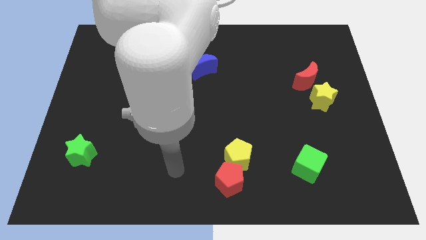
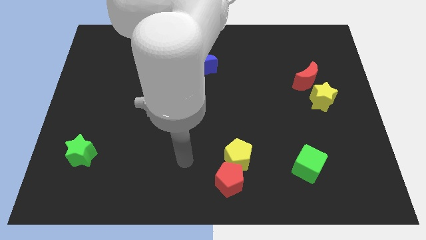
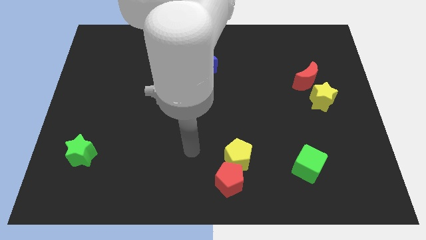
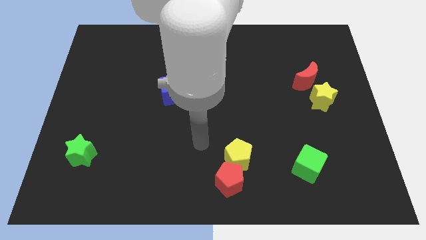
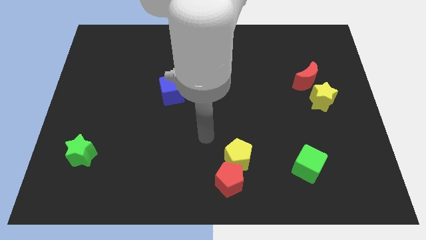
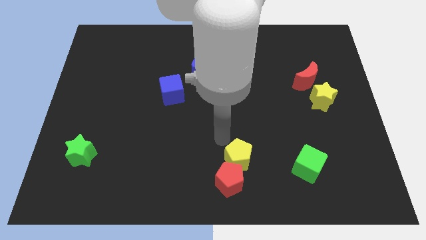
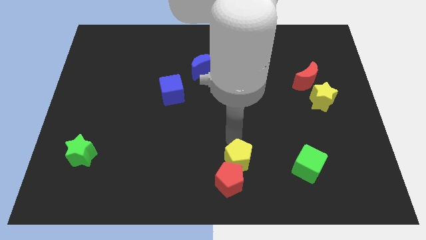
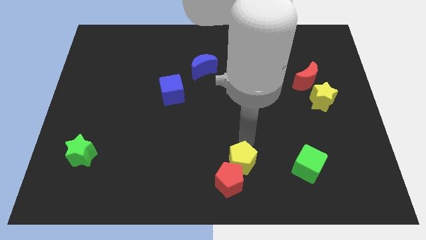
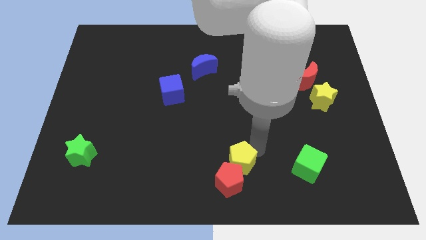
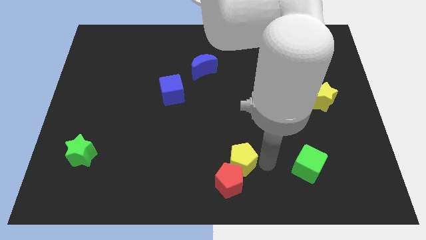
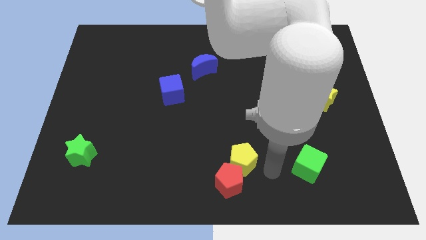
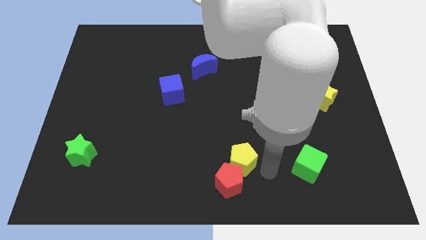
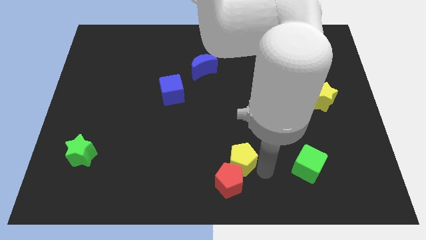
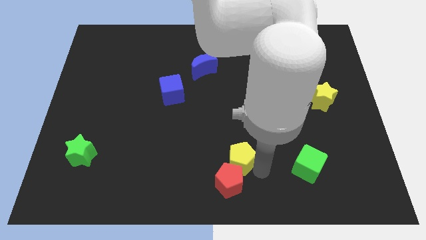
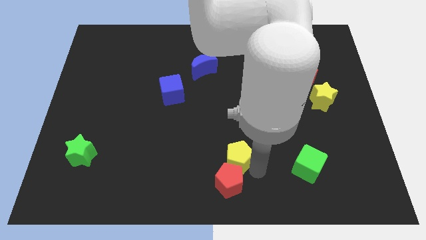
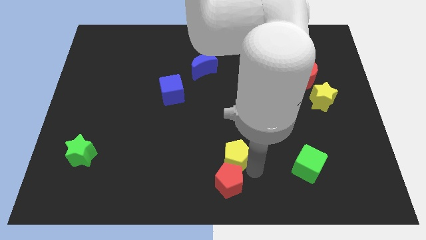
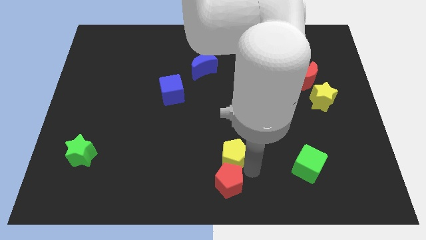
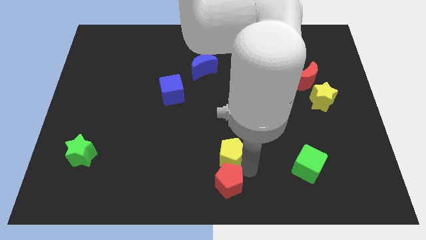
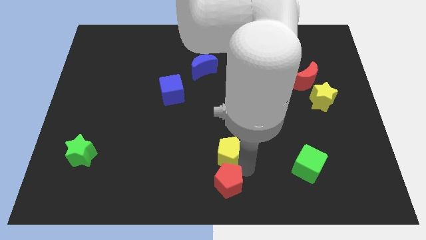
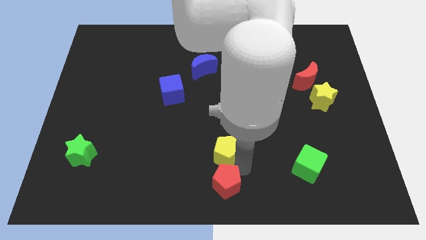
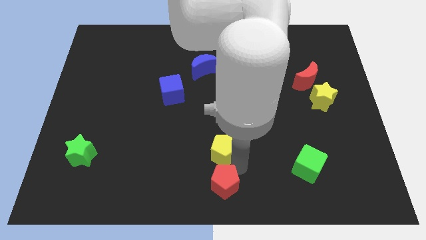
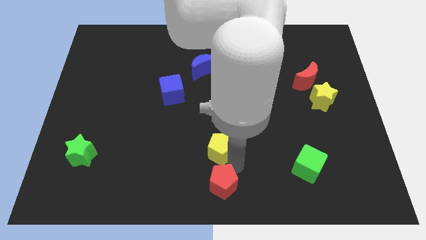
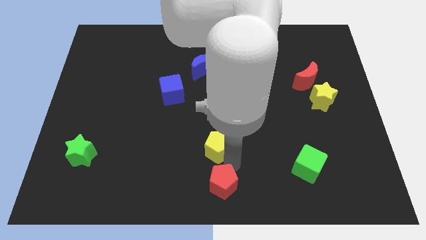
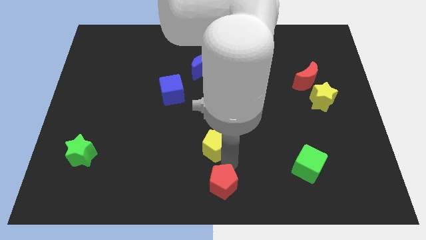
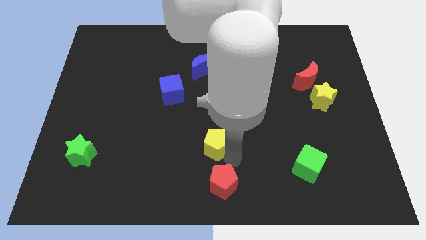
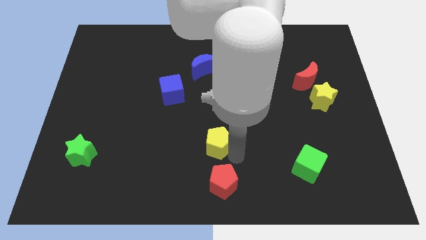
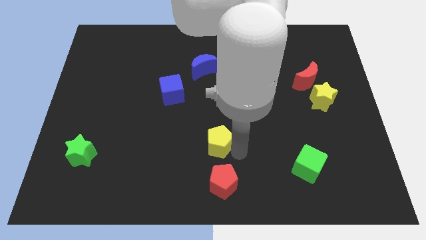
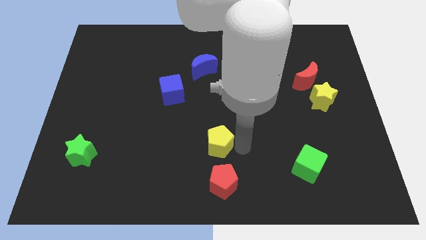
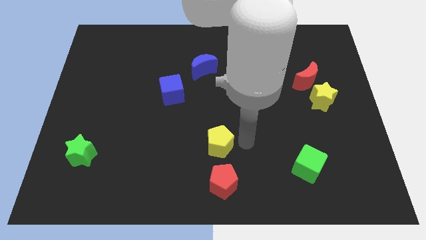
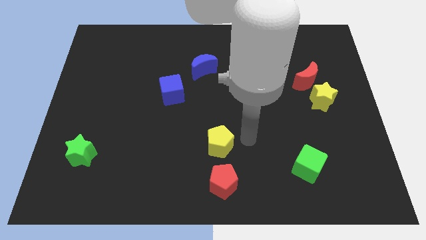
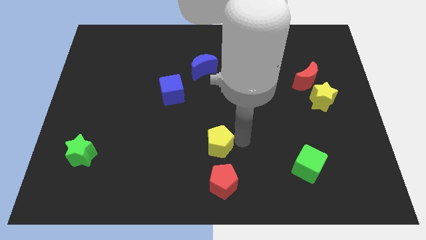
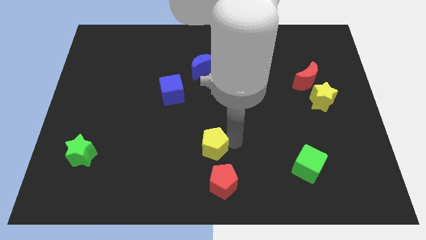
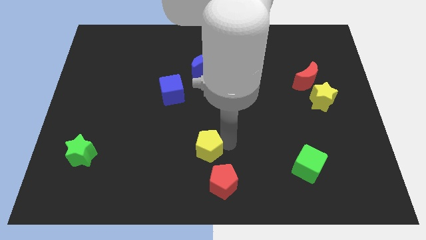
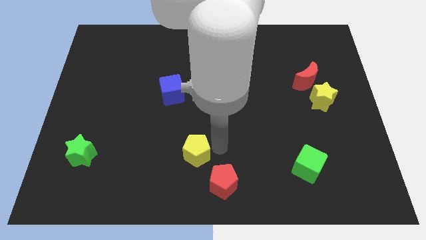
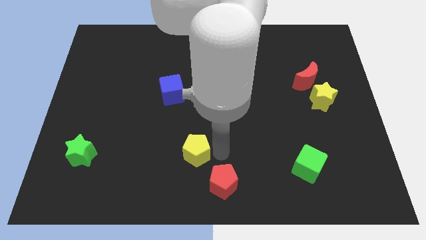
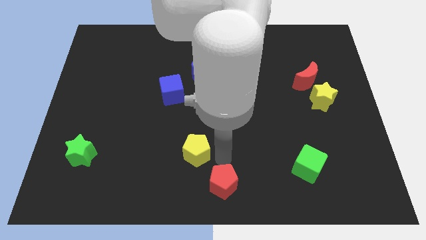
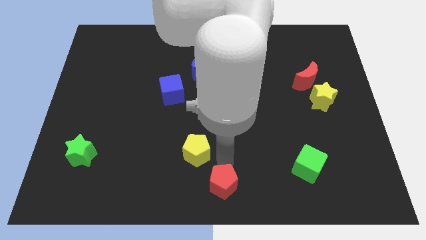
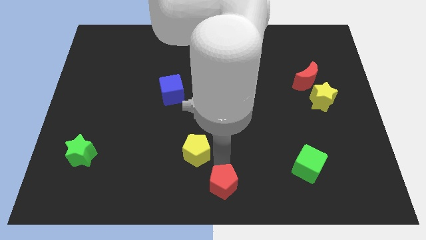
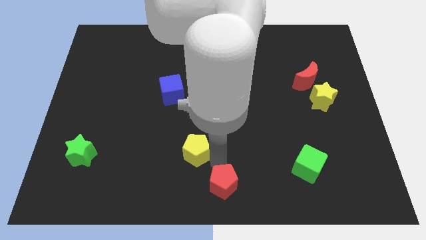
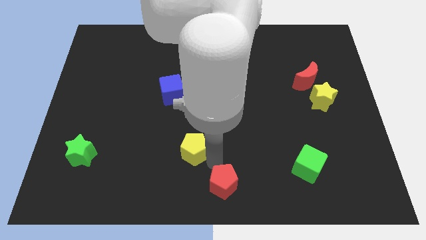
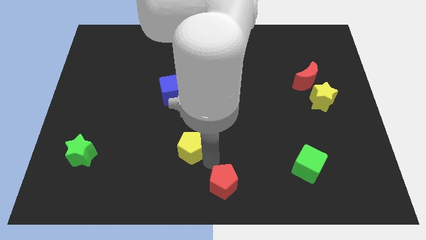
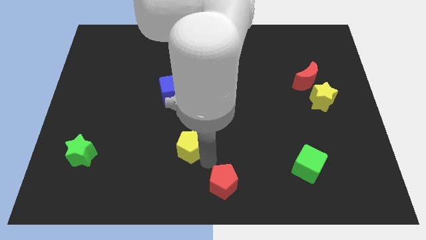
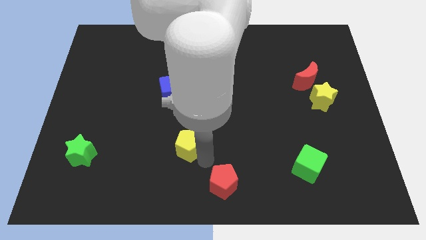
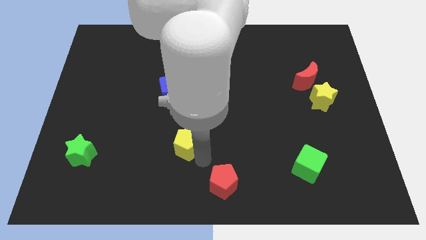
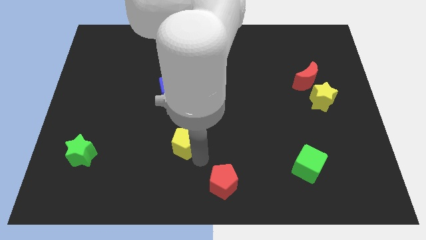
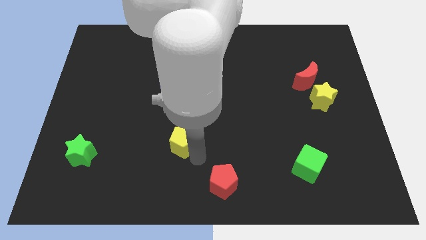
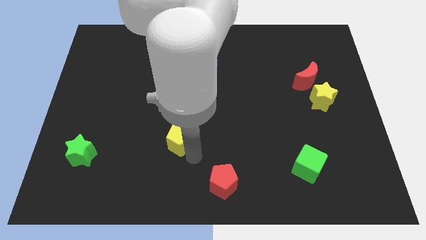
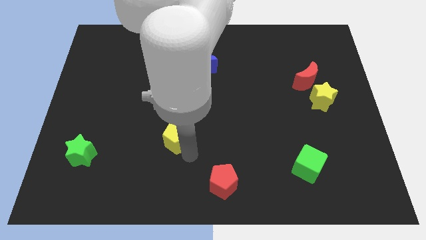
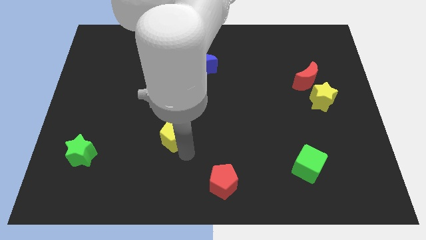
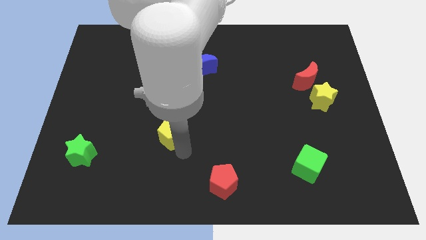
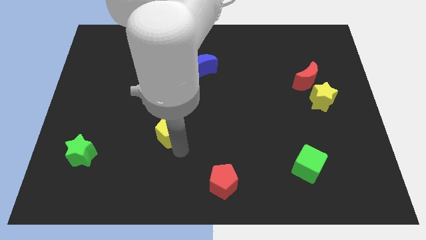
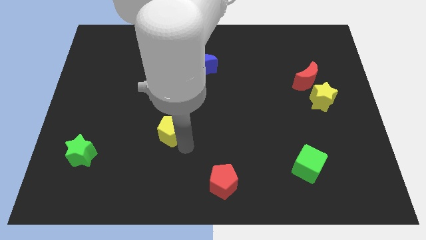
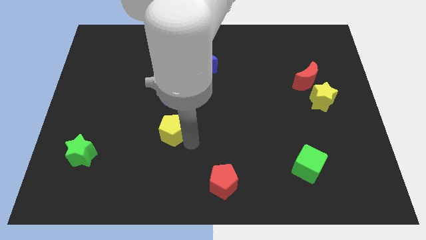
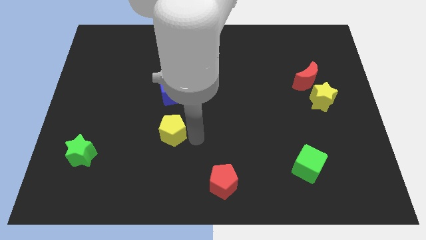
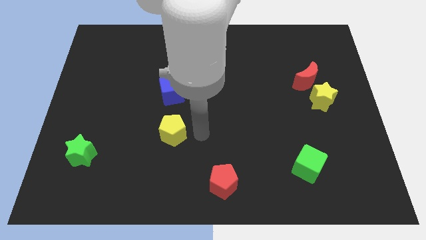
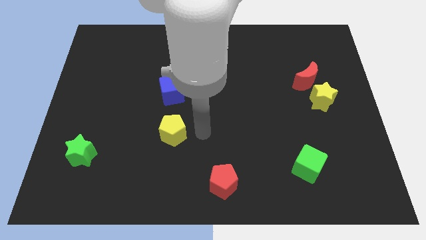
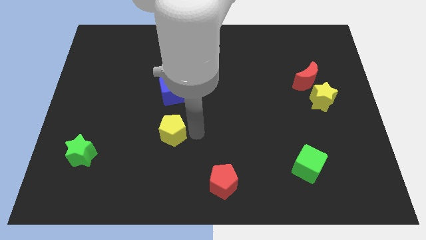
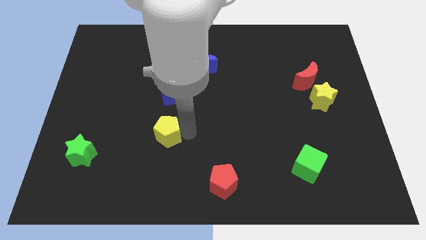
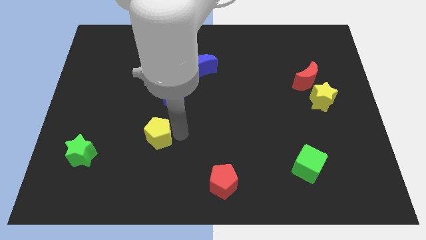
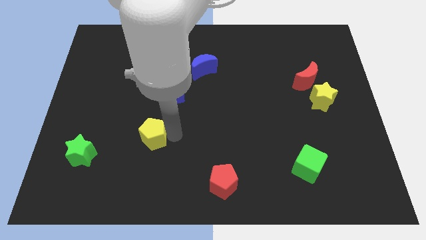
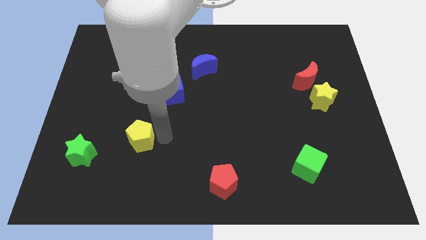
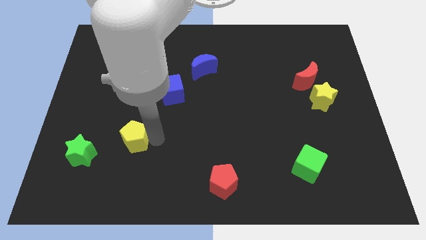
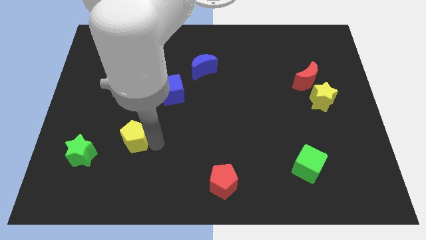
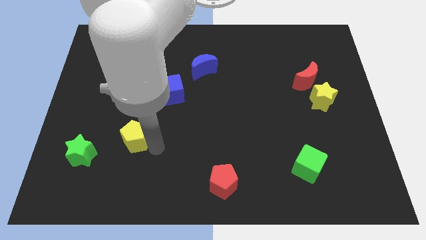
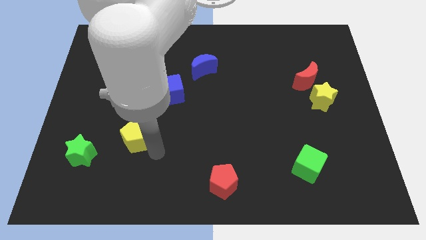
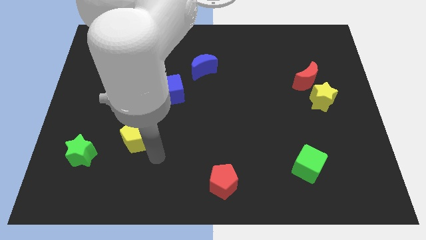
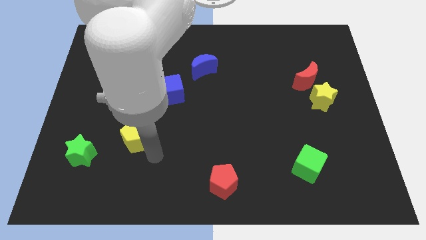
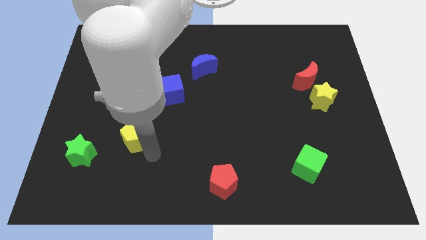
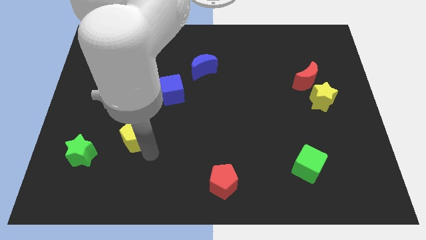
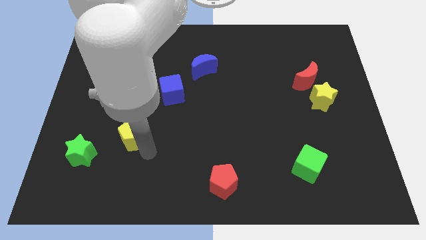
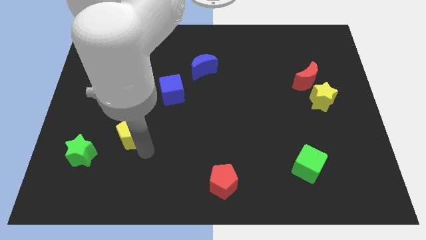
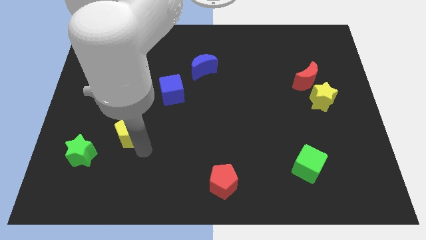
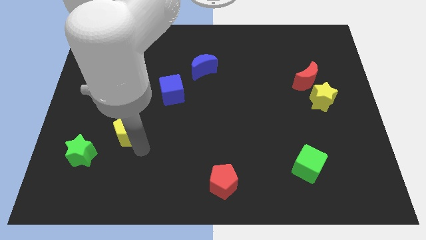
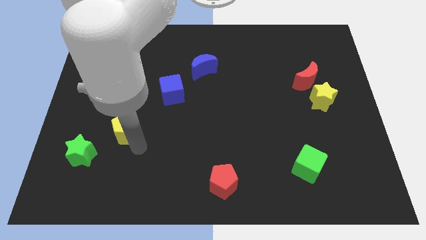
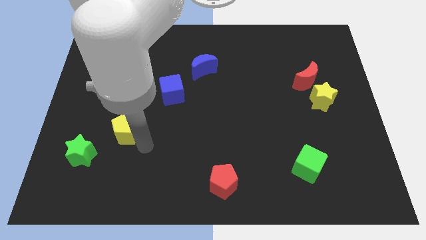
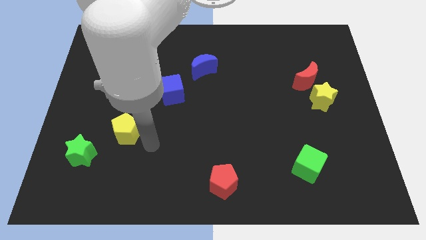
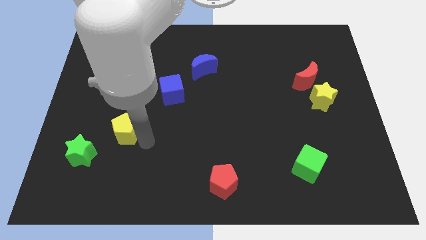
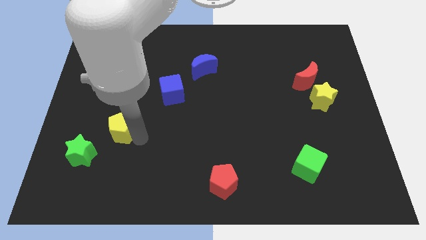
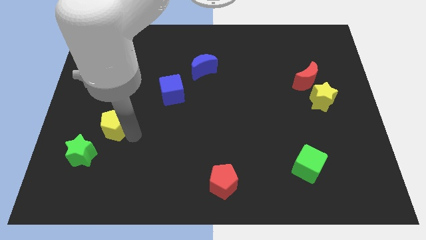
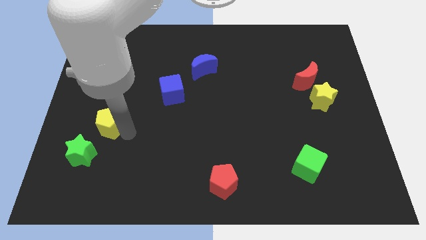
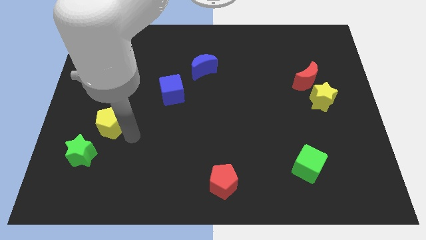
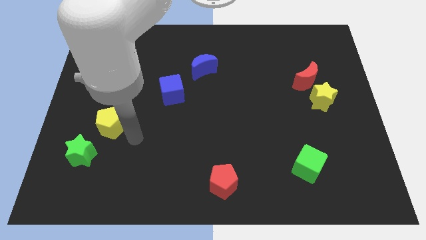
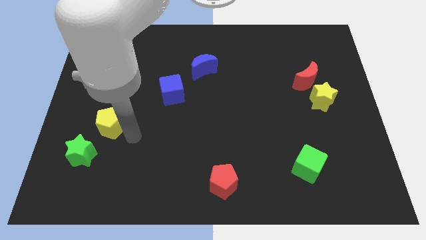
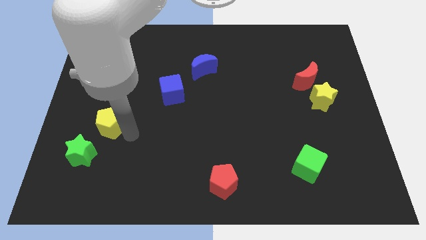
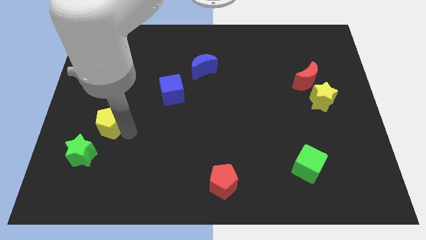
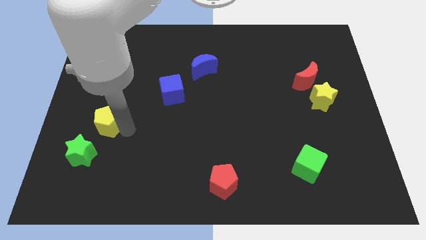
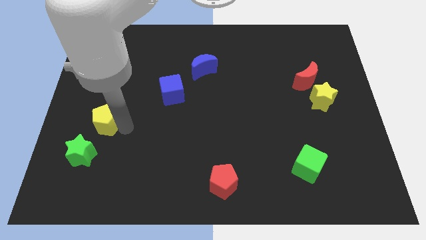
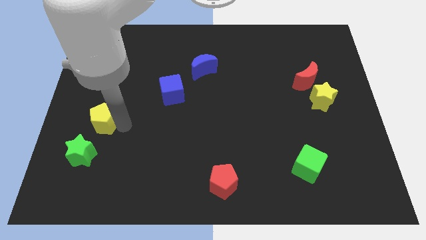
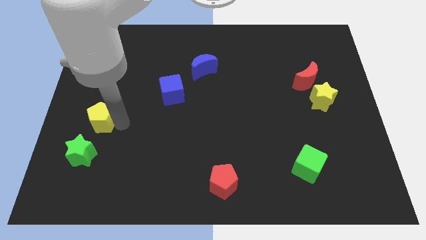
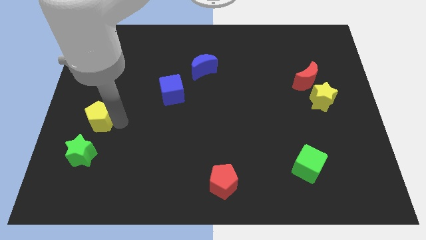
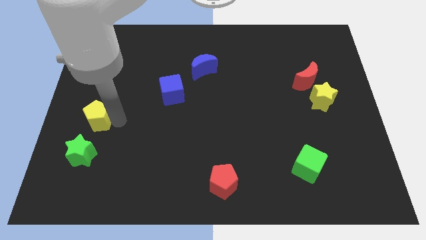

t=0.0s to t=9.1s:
move the yellow pentagon to the left side of the board
